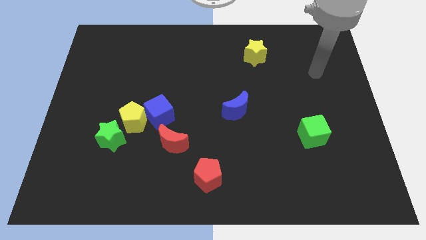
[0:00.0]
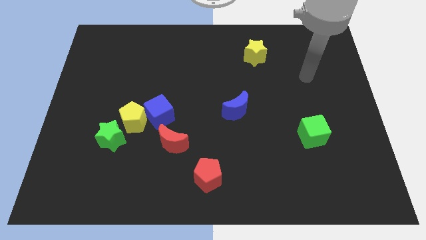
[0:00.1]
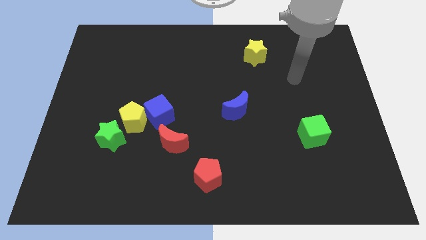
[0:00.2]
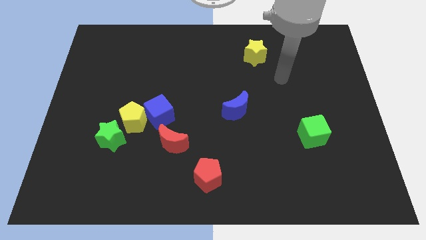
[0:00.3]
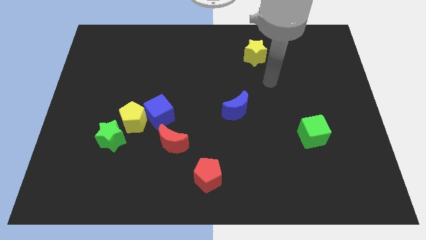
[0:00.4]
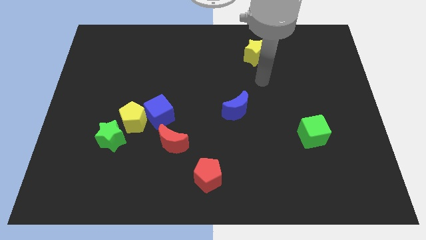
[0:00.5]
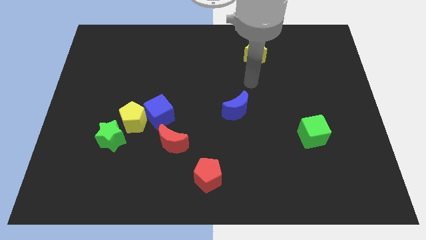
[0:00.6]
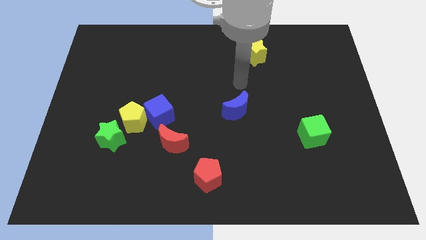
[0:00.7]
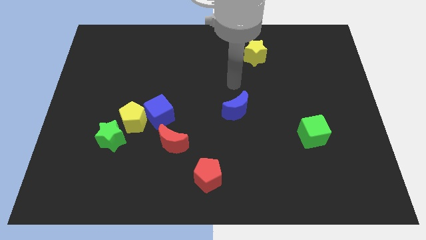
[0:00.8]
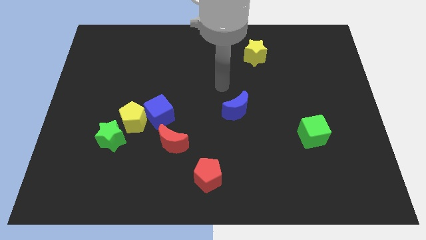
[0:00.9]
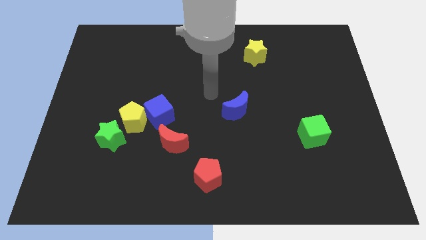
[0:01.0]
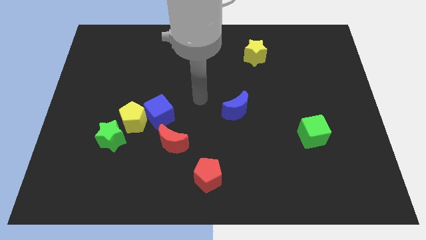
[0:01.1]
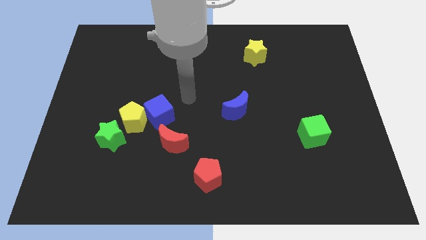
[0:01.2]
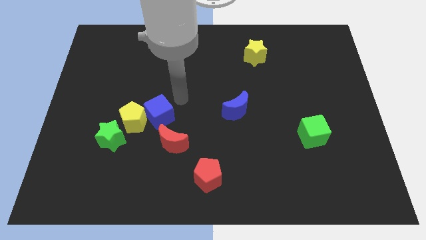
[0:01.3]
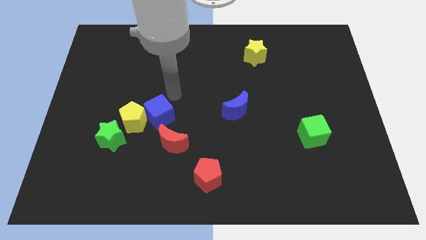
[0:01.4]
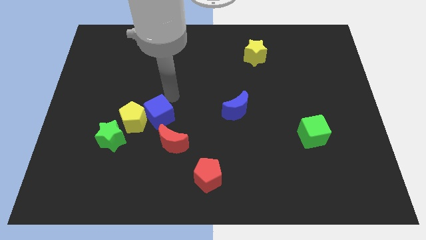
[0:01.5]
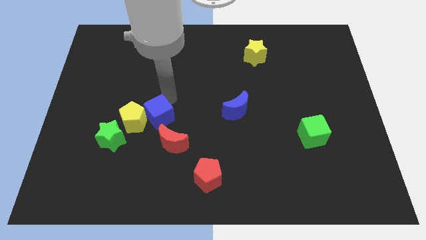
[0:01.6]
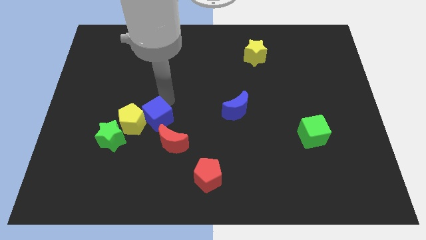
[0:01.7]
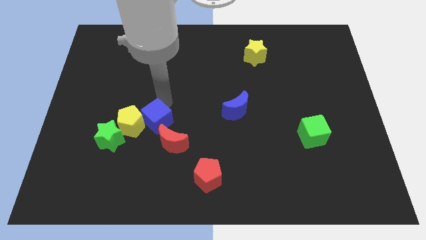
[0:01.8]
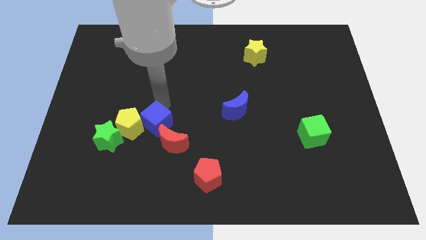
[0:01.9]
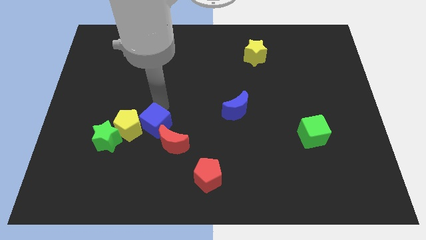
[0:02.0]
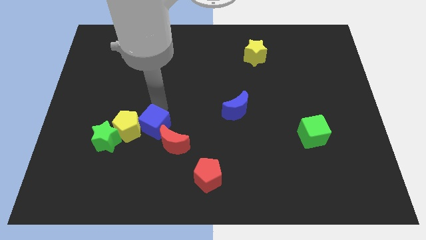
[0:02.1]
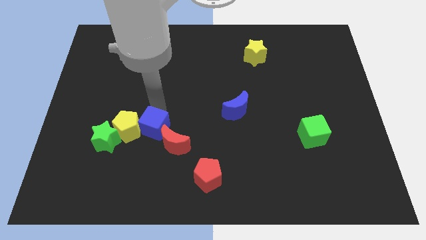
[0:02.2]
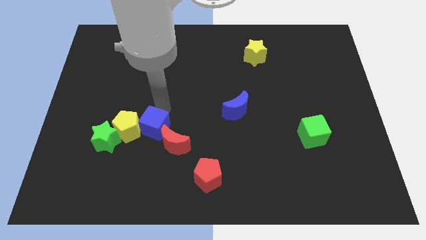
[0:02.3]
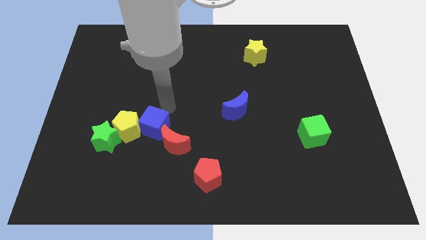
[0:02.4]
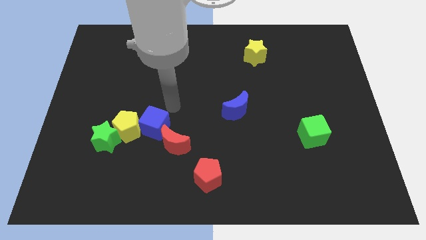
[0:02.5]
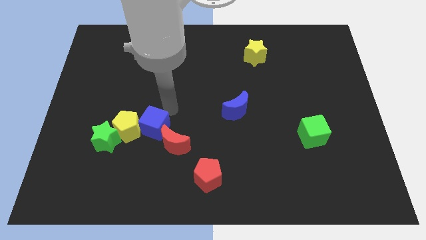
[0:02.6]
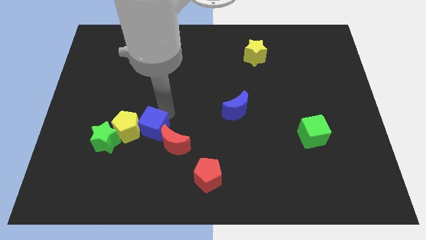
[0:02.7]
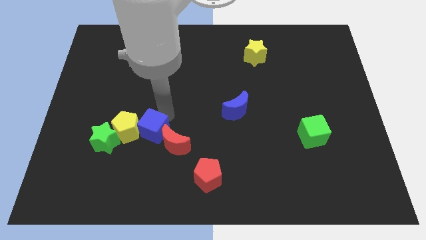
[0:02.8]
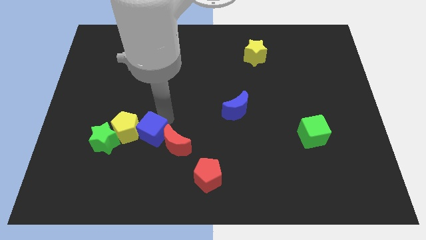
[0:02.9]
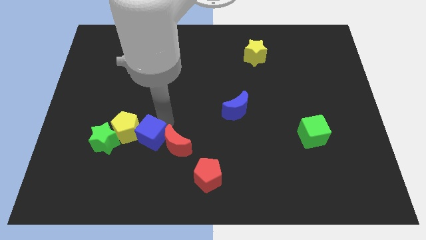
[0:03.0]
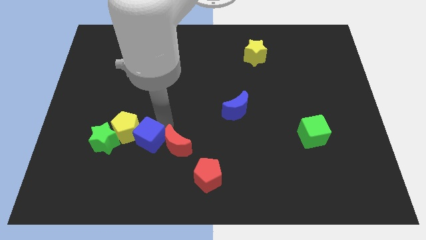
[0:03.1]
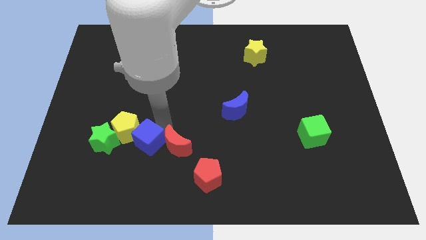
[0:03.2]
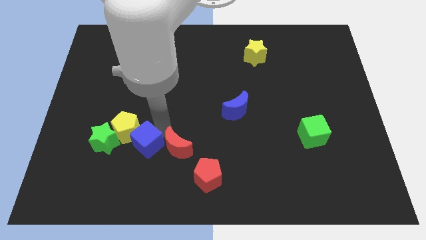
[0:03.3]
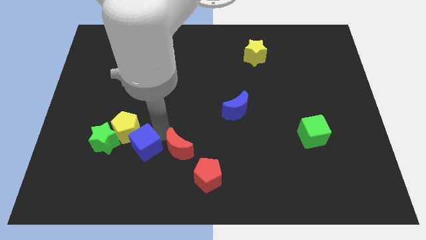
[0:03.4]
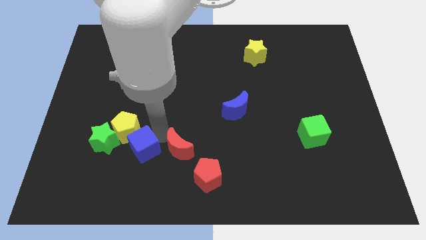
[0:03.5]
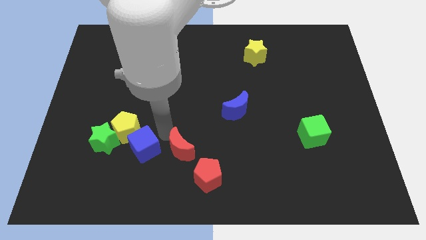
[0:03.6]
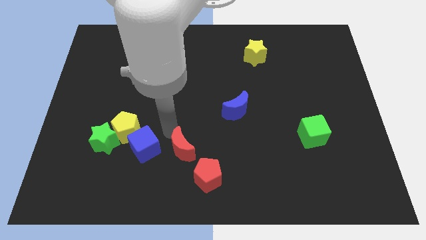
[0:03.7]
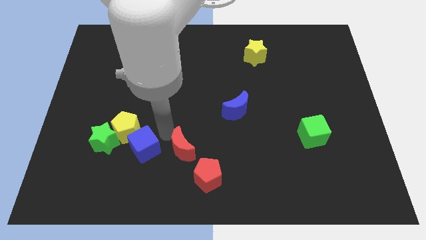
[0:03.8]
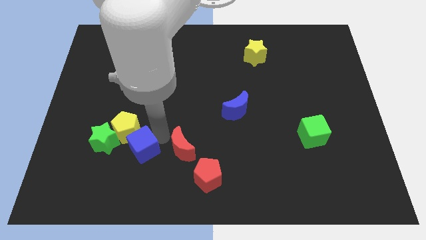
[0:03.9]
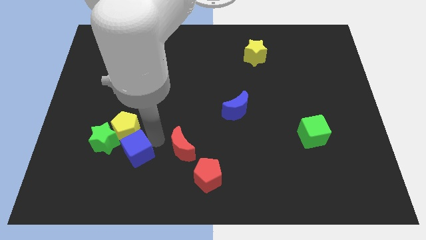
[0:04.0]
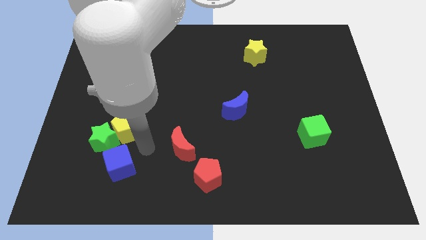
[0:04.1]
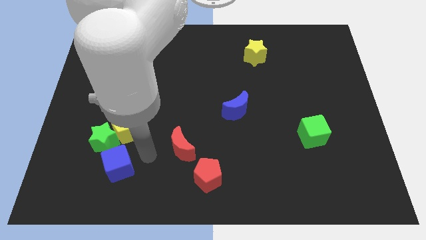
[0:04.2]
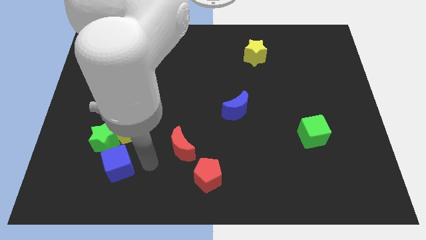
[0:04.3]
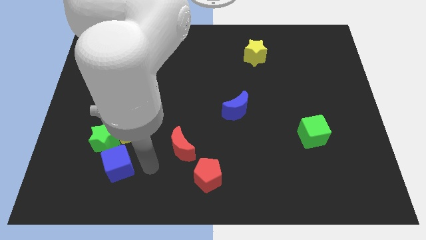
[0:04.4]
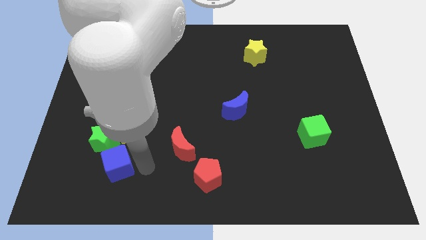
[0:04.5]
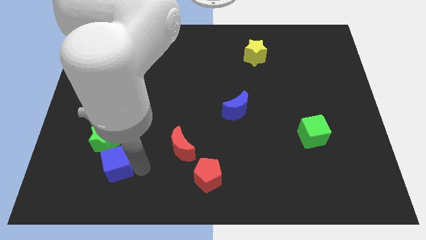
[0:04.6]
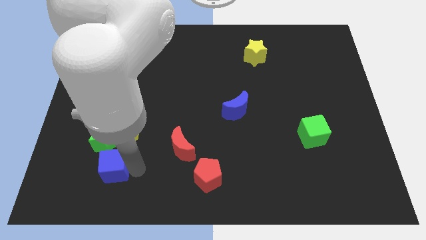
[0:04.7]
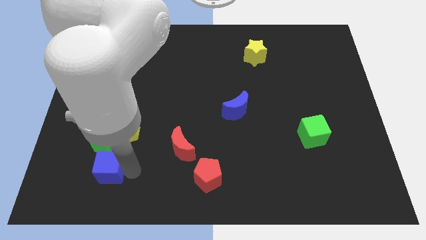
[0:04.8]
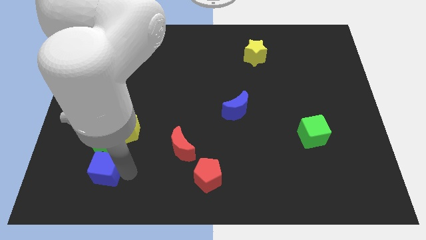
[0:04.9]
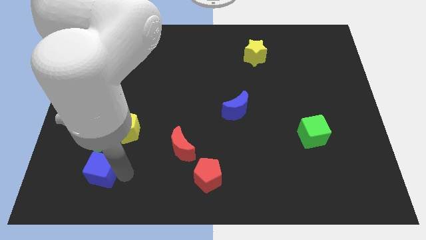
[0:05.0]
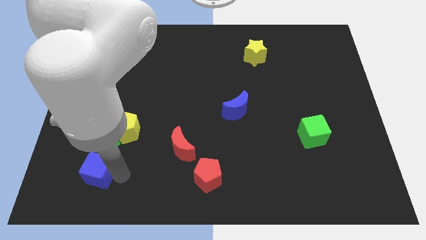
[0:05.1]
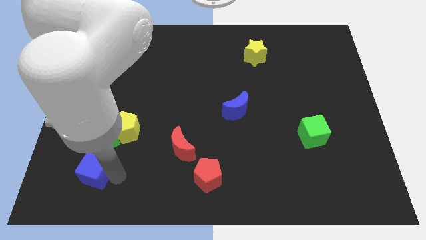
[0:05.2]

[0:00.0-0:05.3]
put the blue cube to the bottom left of the green star

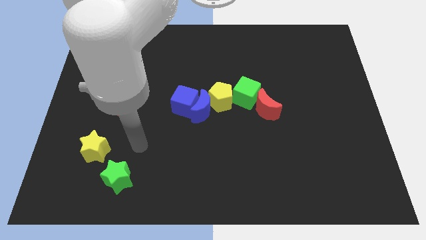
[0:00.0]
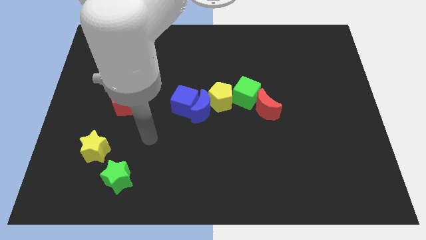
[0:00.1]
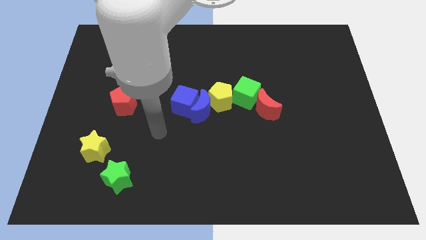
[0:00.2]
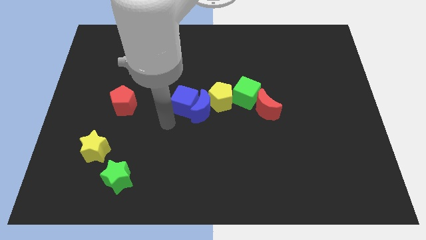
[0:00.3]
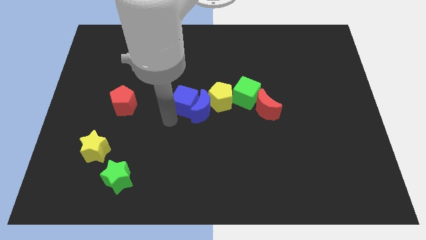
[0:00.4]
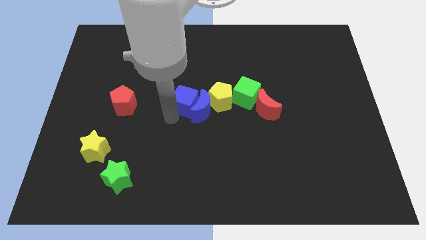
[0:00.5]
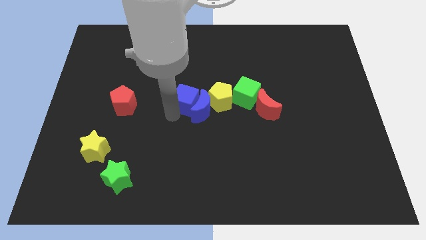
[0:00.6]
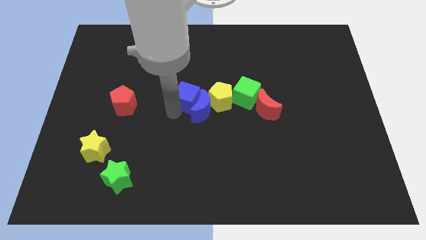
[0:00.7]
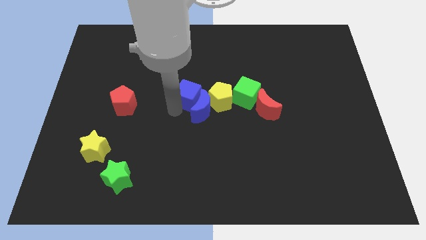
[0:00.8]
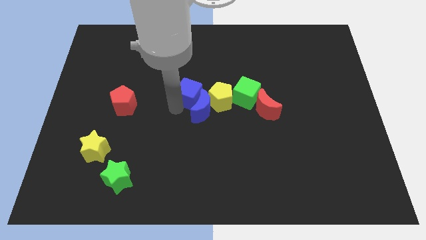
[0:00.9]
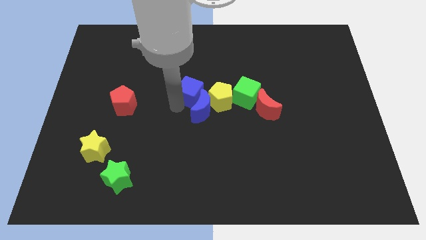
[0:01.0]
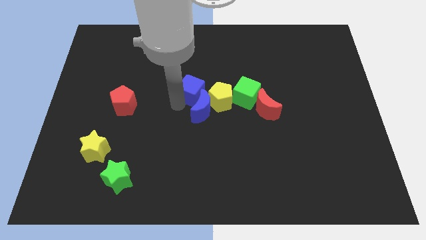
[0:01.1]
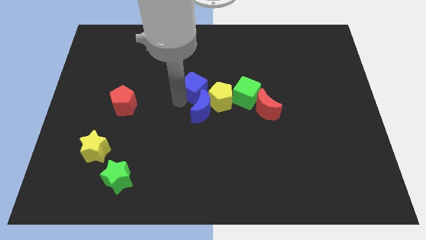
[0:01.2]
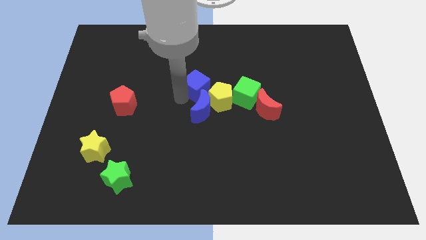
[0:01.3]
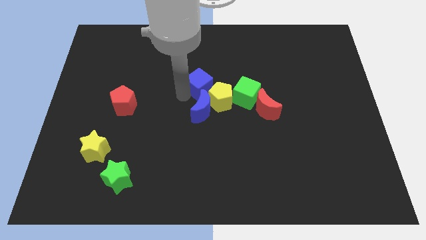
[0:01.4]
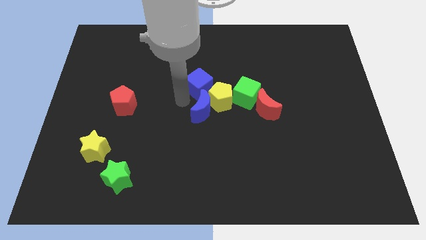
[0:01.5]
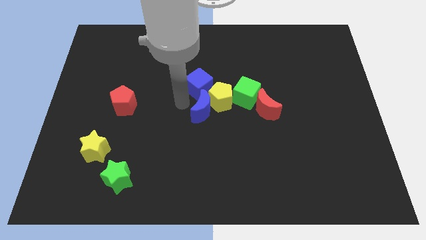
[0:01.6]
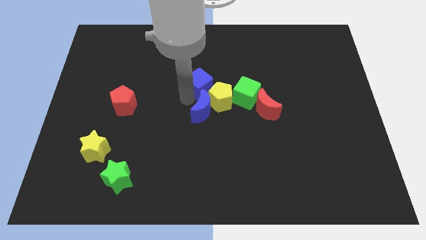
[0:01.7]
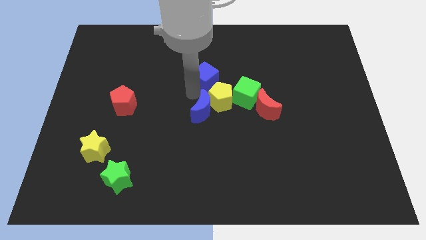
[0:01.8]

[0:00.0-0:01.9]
put the blue cube above the yellow pentagon
